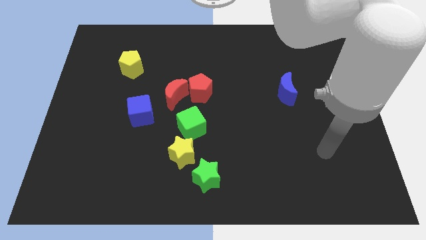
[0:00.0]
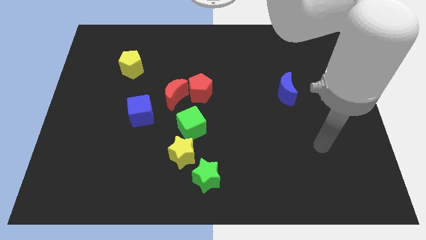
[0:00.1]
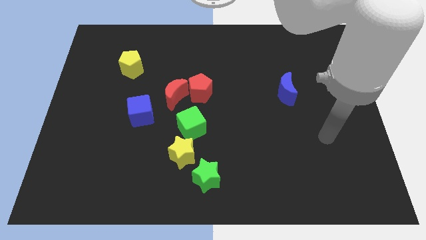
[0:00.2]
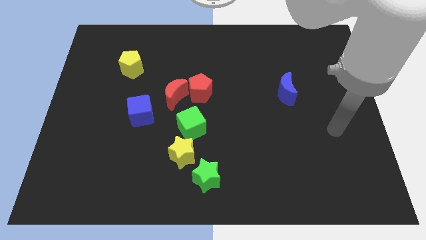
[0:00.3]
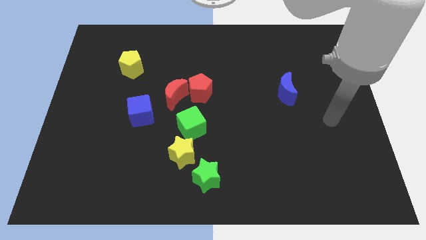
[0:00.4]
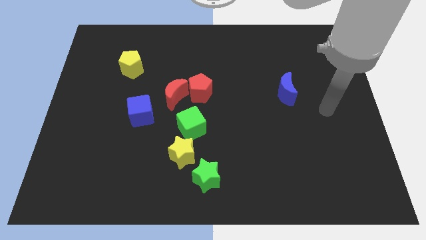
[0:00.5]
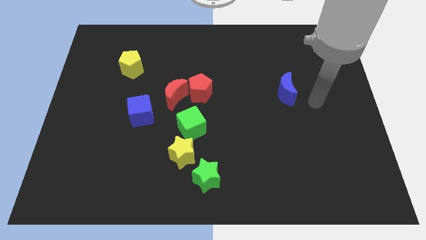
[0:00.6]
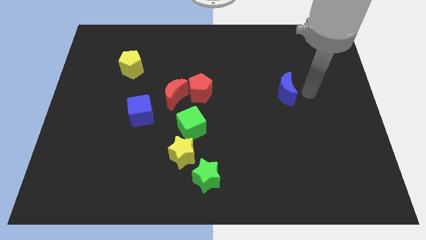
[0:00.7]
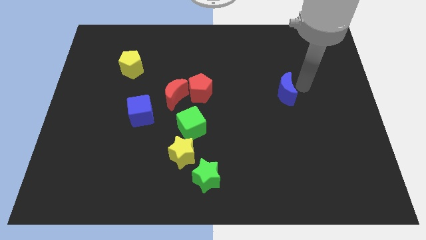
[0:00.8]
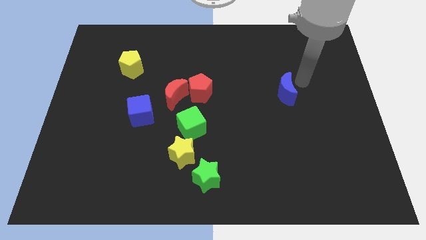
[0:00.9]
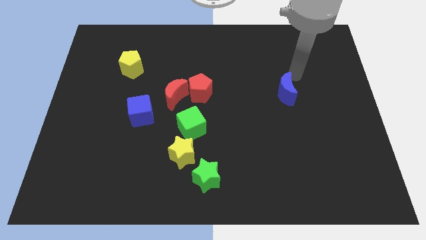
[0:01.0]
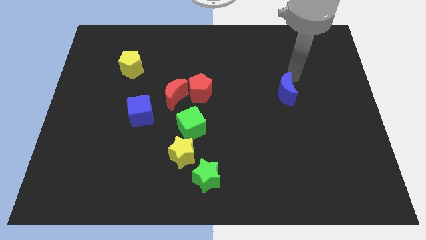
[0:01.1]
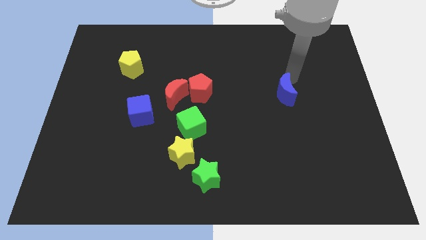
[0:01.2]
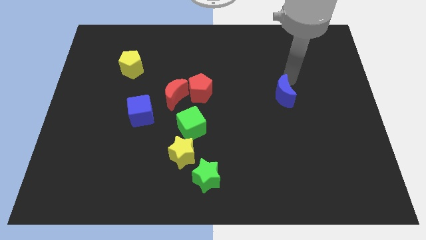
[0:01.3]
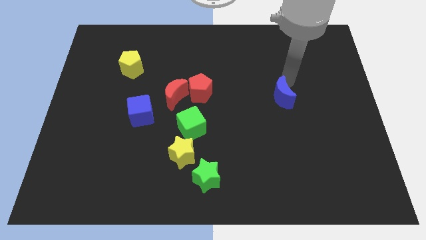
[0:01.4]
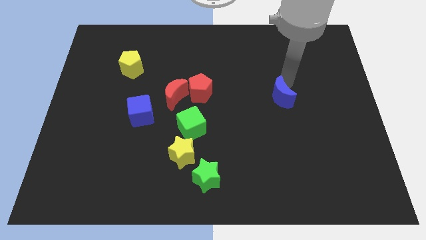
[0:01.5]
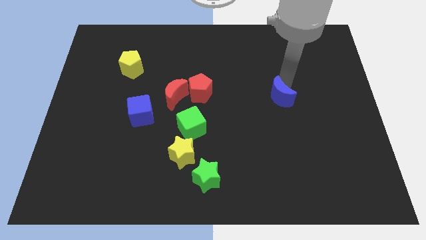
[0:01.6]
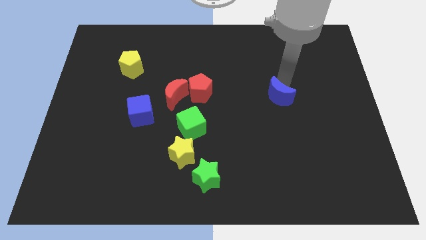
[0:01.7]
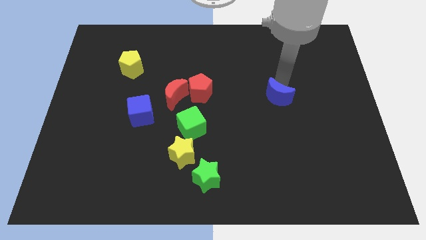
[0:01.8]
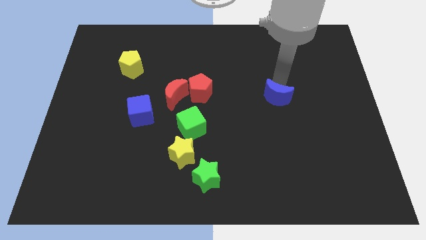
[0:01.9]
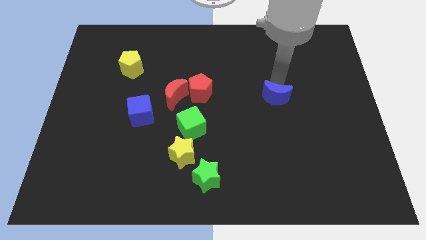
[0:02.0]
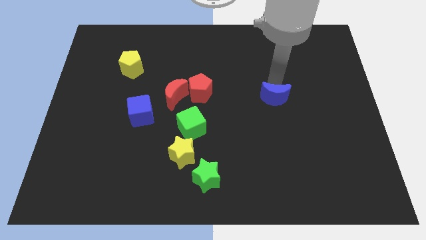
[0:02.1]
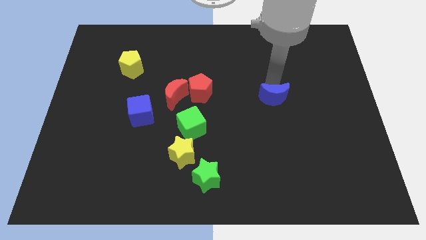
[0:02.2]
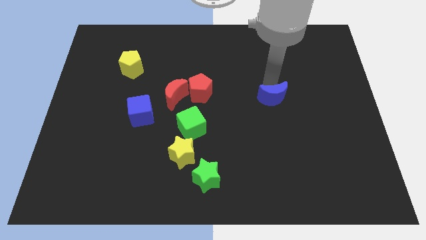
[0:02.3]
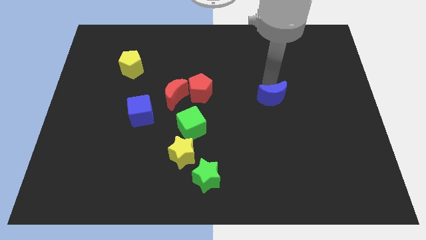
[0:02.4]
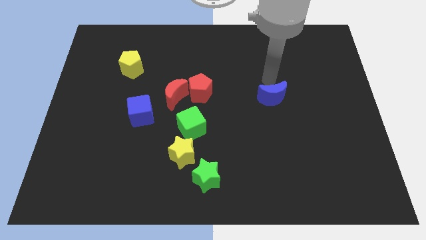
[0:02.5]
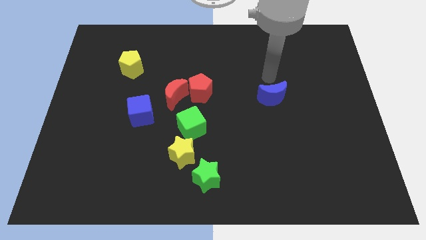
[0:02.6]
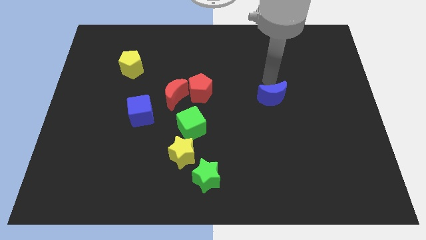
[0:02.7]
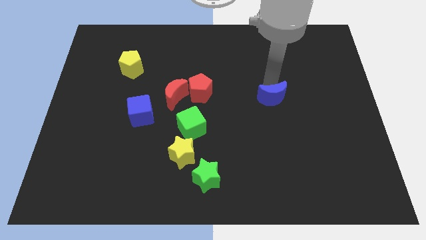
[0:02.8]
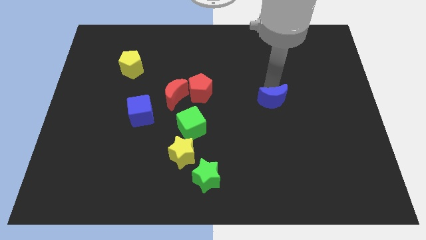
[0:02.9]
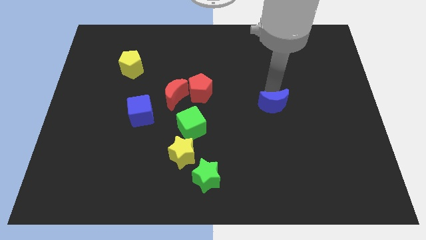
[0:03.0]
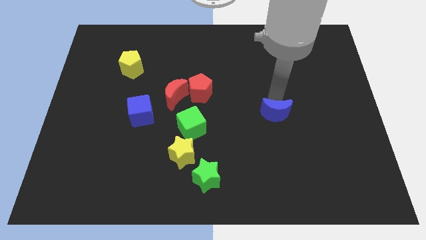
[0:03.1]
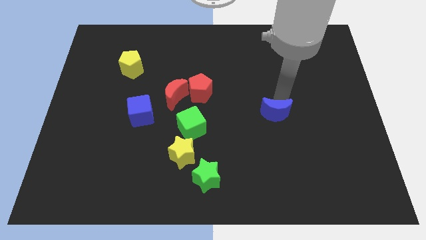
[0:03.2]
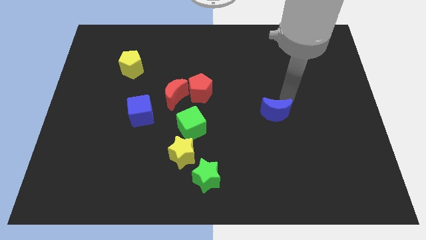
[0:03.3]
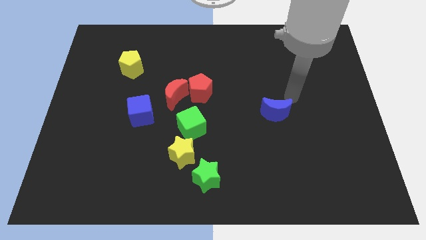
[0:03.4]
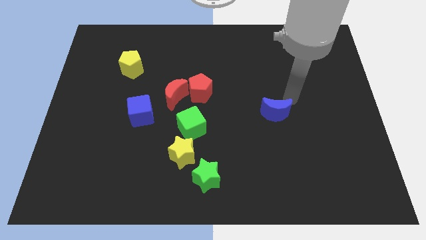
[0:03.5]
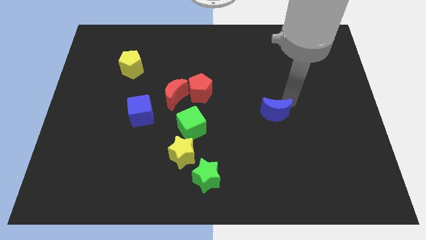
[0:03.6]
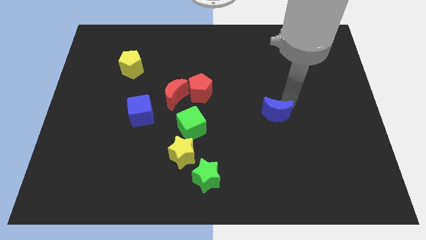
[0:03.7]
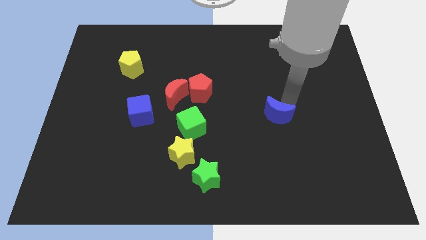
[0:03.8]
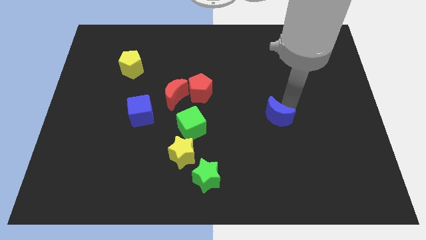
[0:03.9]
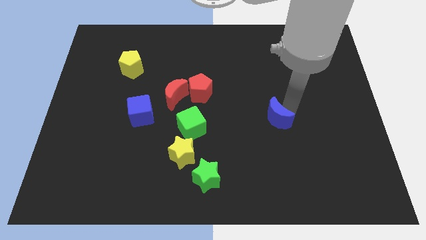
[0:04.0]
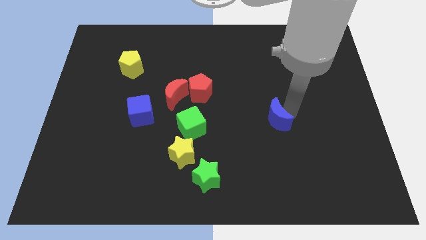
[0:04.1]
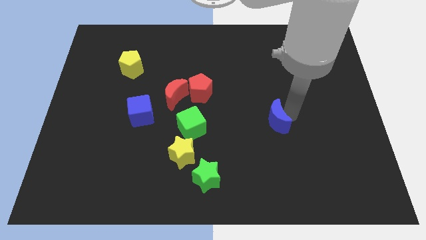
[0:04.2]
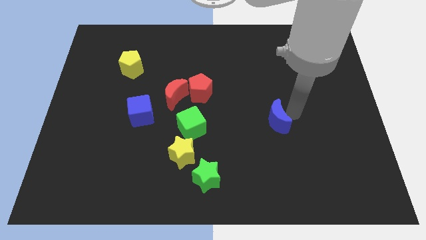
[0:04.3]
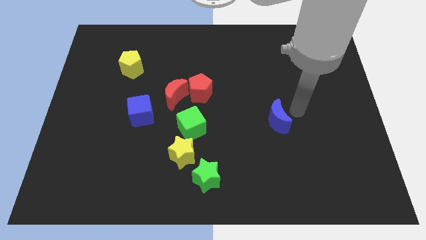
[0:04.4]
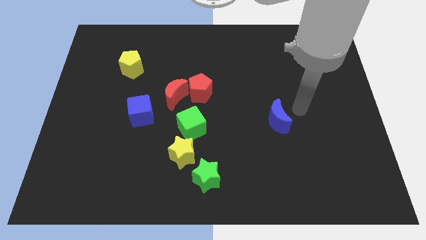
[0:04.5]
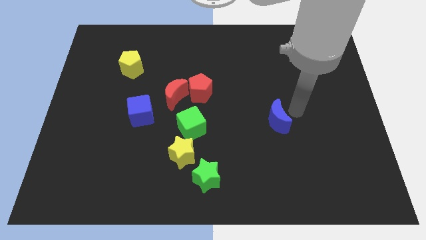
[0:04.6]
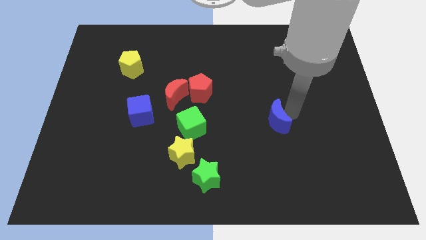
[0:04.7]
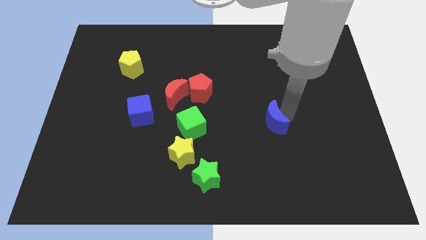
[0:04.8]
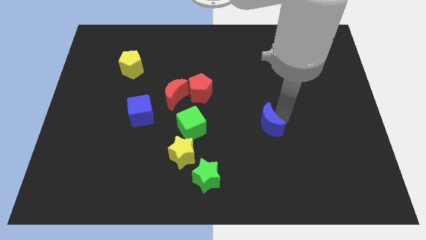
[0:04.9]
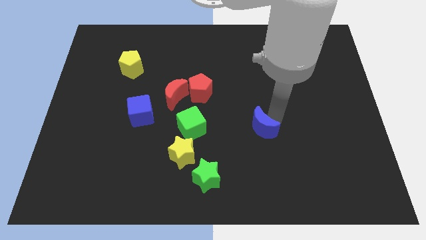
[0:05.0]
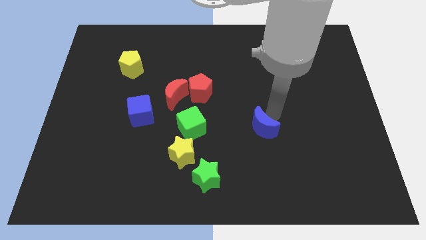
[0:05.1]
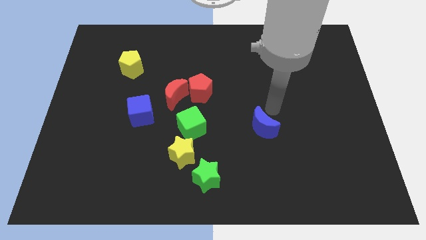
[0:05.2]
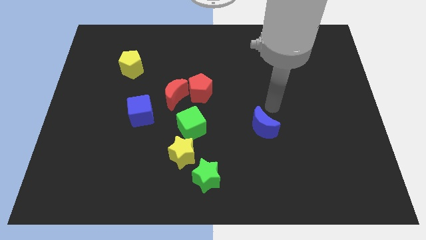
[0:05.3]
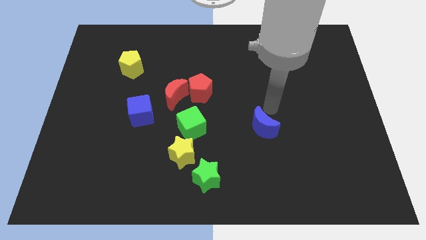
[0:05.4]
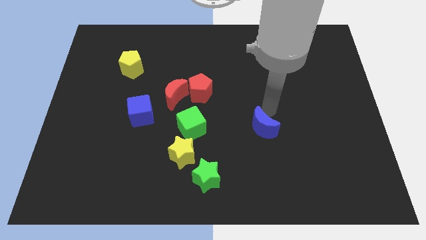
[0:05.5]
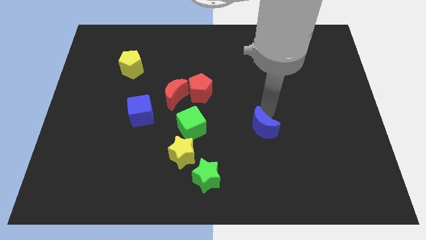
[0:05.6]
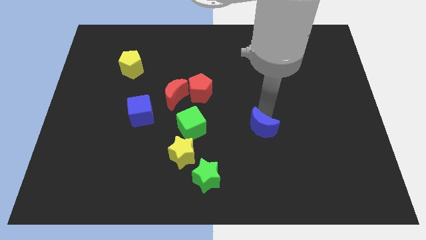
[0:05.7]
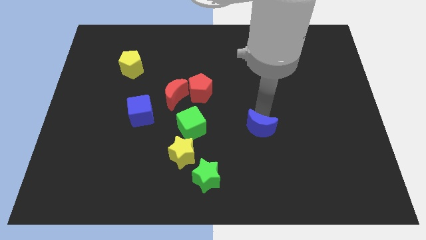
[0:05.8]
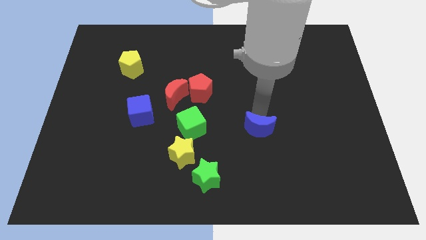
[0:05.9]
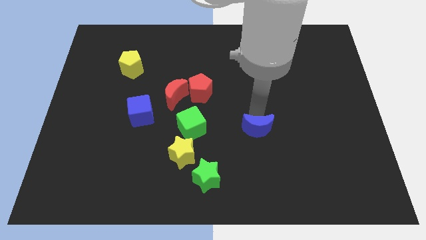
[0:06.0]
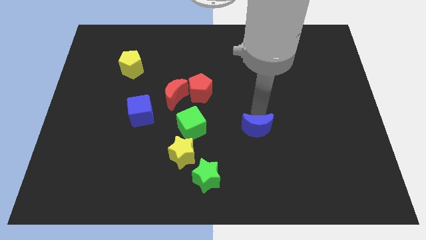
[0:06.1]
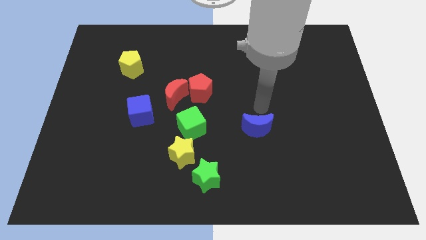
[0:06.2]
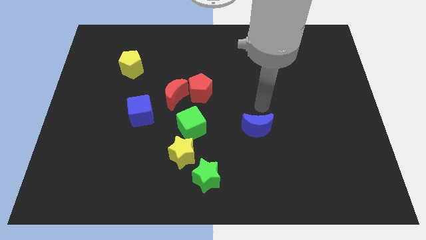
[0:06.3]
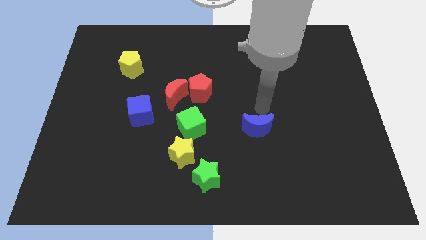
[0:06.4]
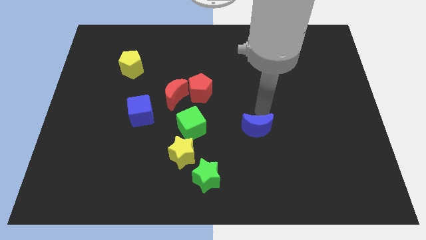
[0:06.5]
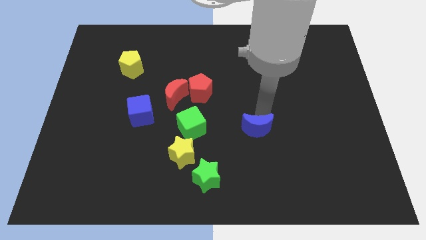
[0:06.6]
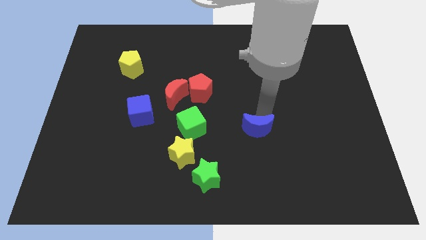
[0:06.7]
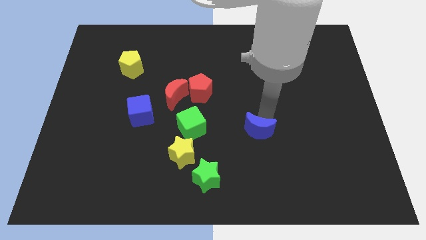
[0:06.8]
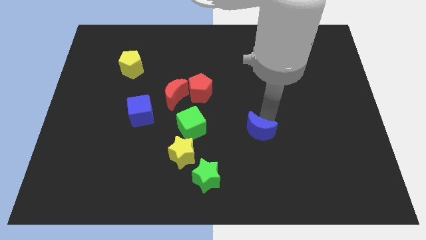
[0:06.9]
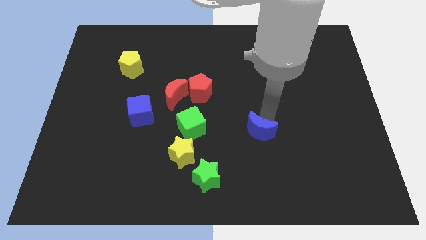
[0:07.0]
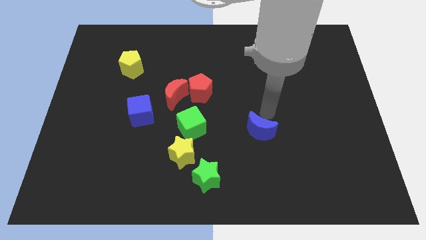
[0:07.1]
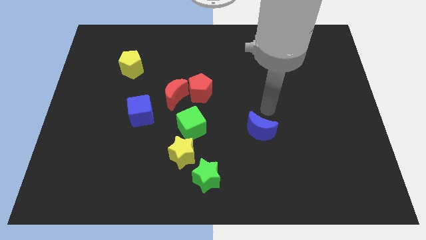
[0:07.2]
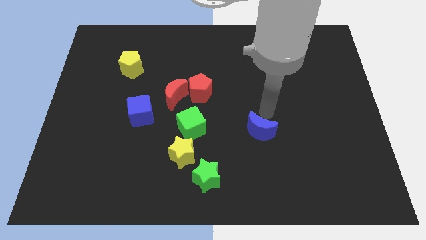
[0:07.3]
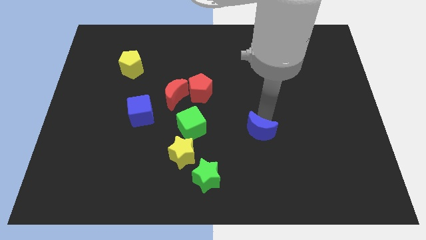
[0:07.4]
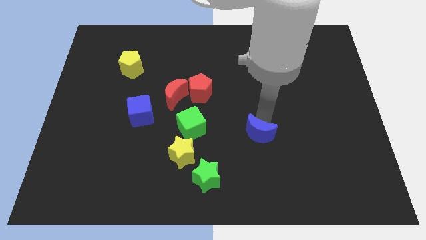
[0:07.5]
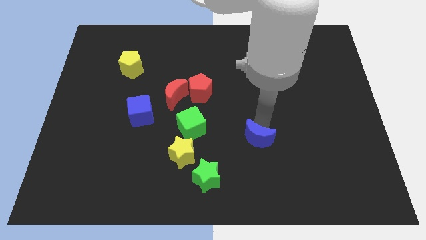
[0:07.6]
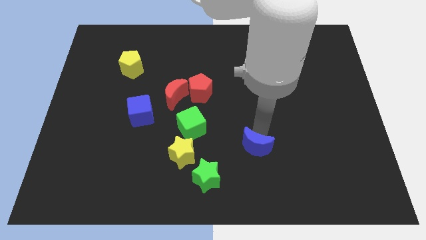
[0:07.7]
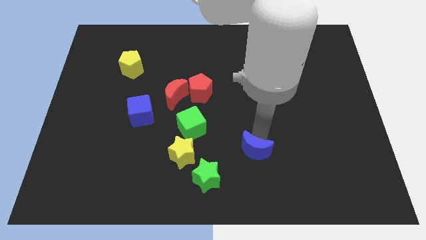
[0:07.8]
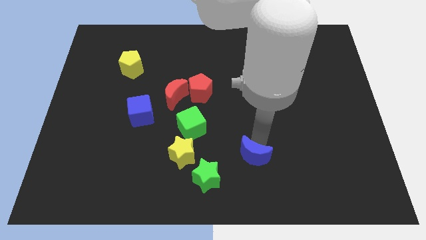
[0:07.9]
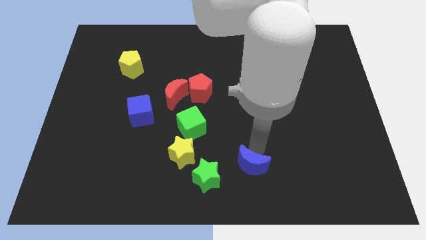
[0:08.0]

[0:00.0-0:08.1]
push the blue moon to the bottom side
